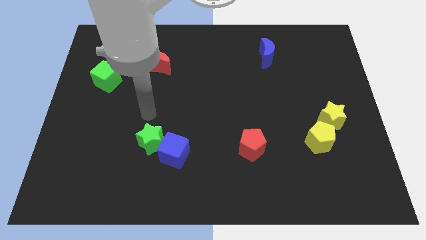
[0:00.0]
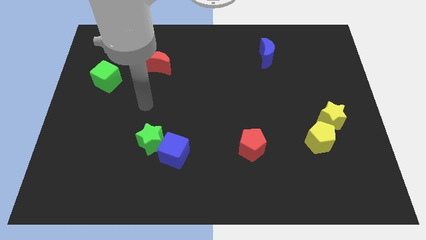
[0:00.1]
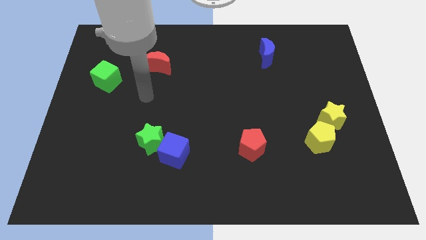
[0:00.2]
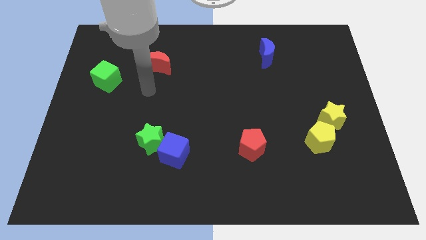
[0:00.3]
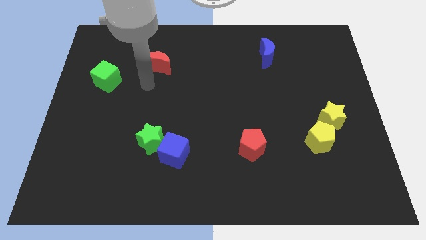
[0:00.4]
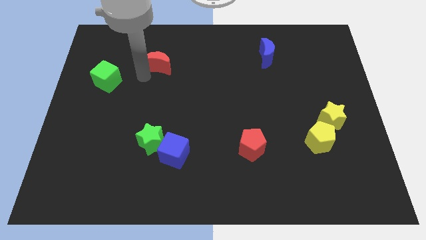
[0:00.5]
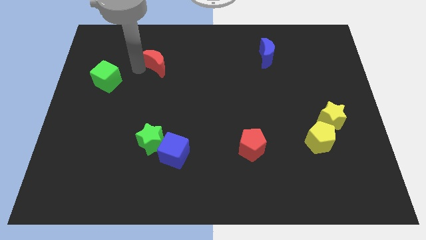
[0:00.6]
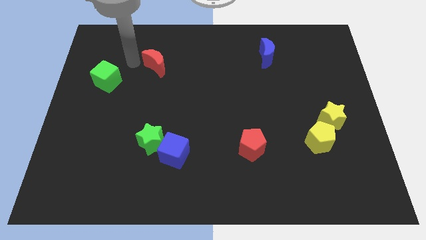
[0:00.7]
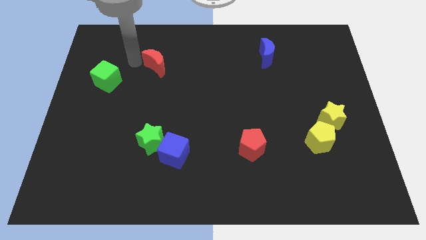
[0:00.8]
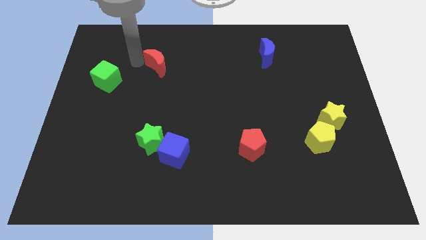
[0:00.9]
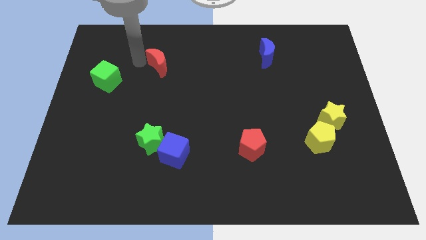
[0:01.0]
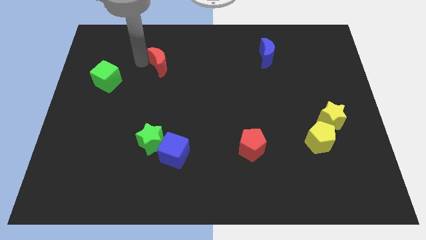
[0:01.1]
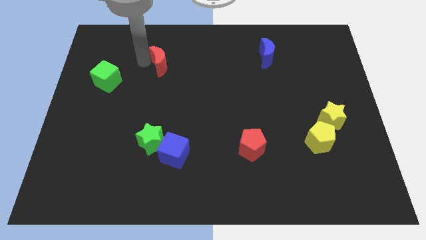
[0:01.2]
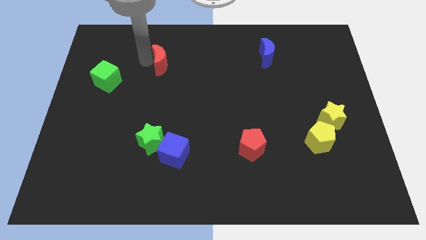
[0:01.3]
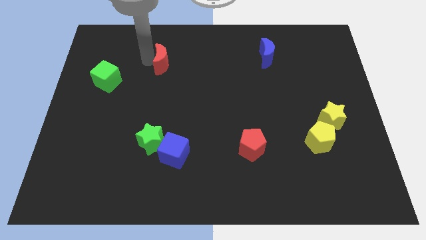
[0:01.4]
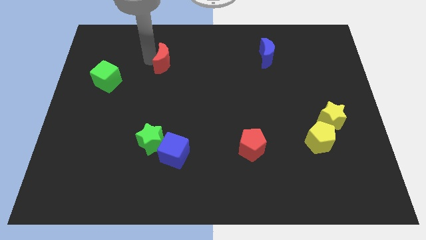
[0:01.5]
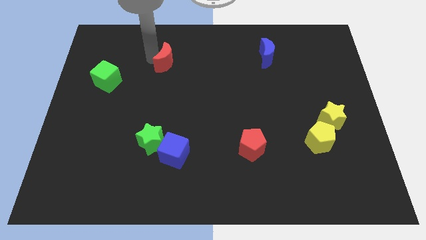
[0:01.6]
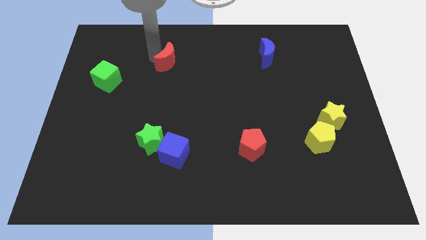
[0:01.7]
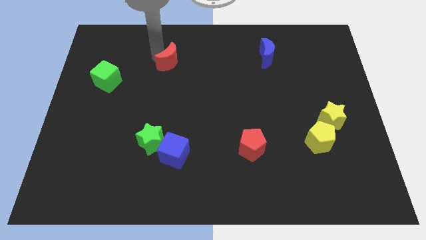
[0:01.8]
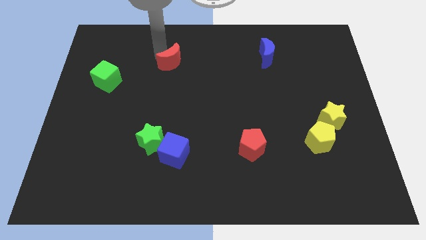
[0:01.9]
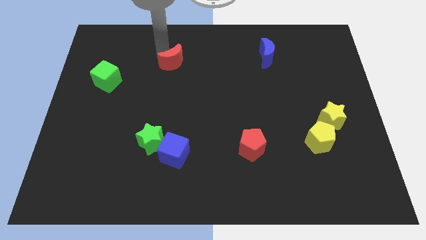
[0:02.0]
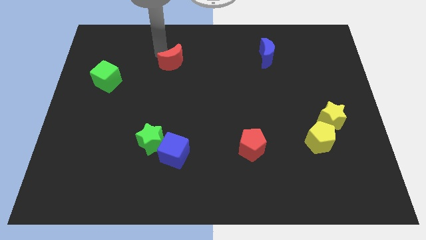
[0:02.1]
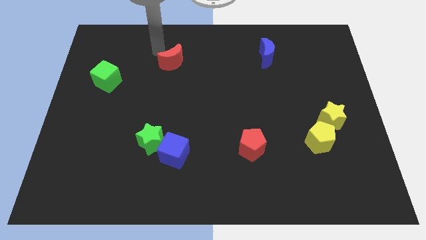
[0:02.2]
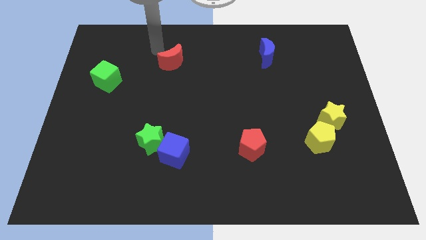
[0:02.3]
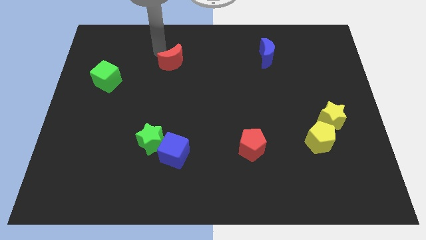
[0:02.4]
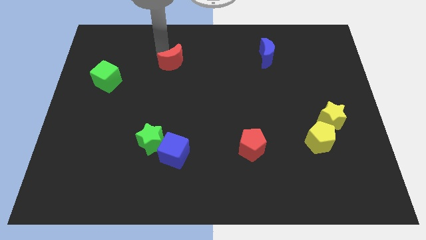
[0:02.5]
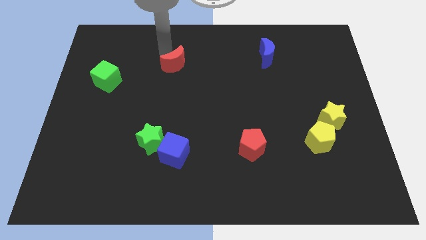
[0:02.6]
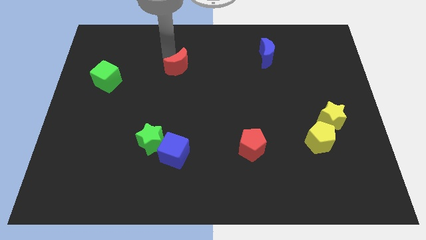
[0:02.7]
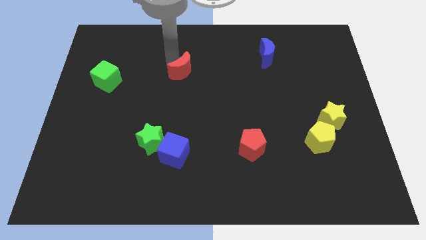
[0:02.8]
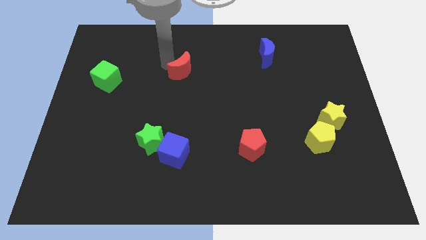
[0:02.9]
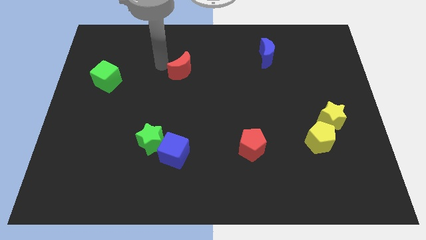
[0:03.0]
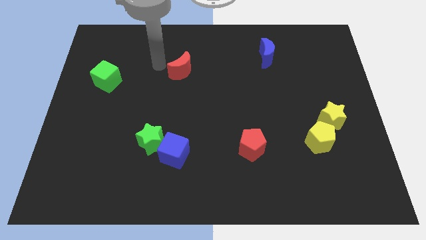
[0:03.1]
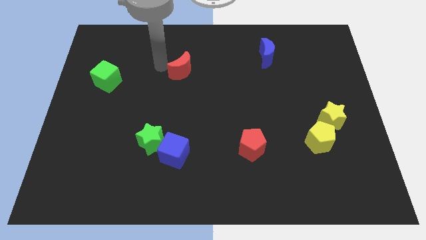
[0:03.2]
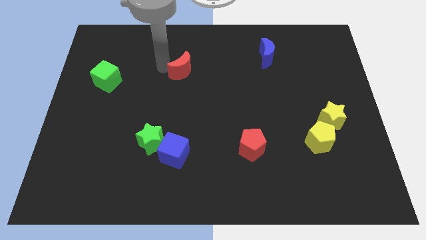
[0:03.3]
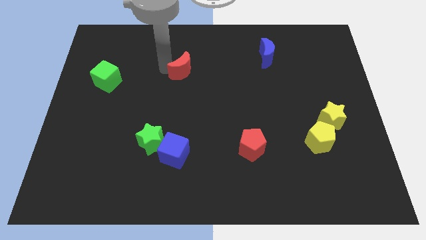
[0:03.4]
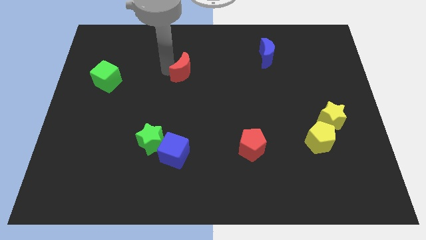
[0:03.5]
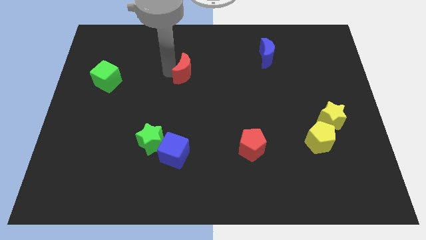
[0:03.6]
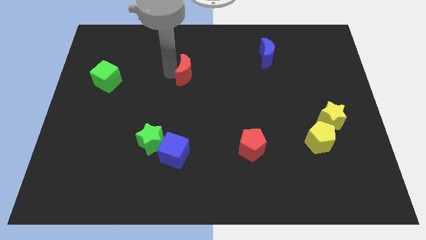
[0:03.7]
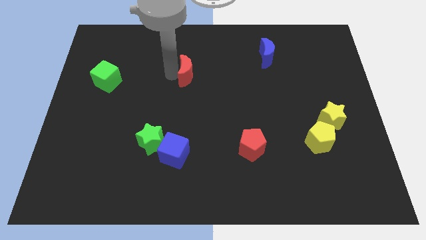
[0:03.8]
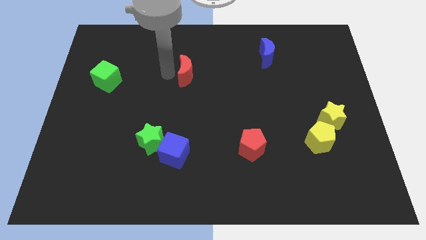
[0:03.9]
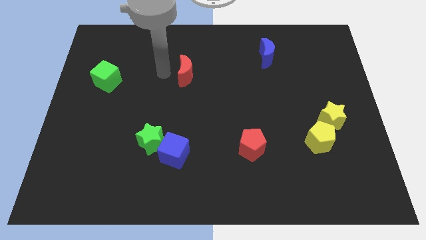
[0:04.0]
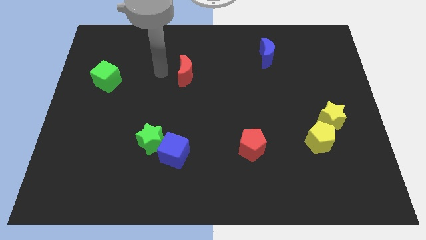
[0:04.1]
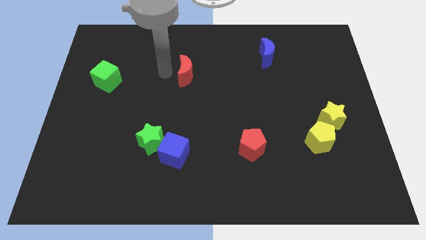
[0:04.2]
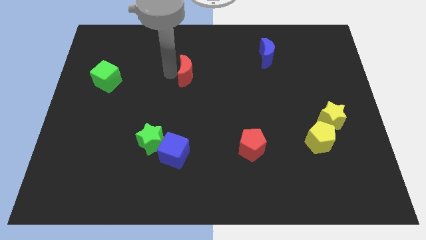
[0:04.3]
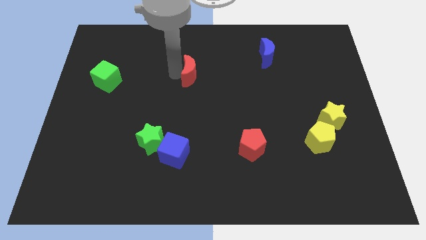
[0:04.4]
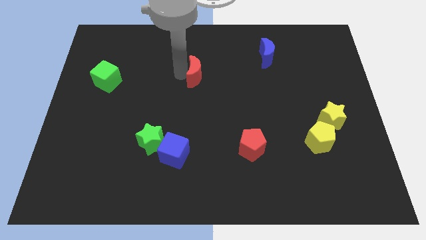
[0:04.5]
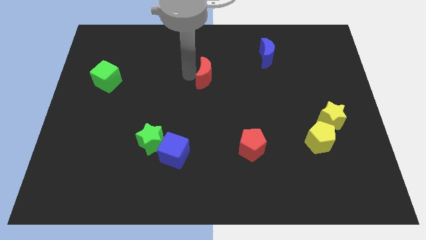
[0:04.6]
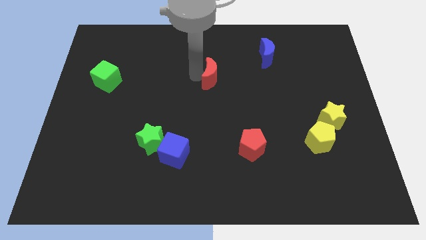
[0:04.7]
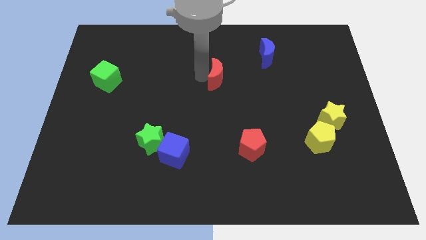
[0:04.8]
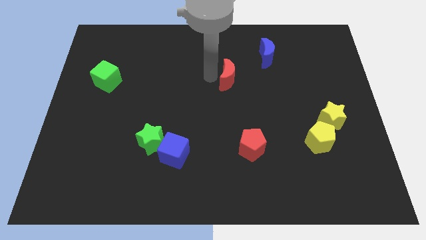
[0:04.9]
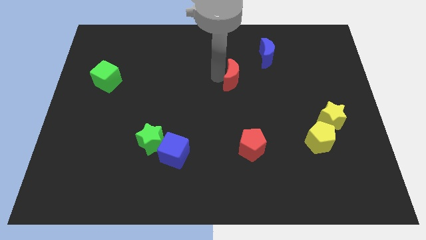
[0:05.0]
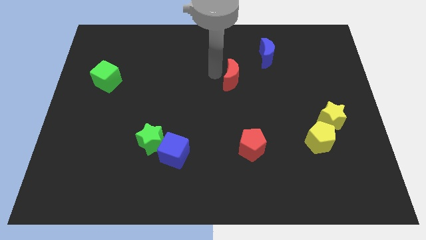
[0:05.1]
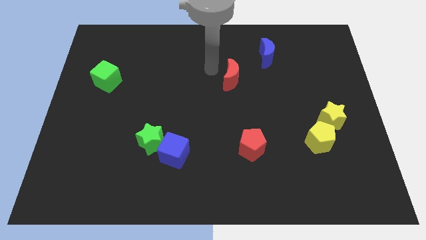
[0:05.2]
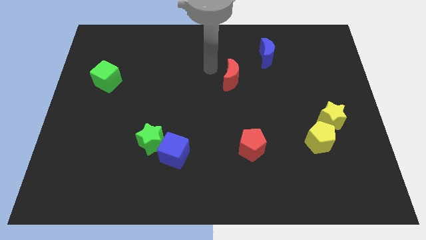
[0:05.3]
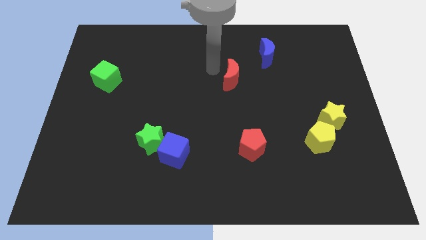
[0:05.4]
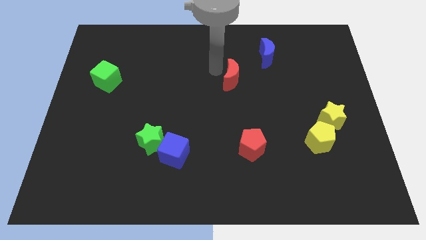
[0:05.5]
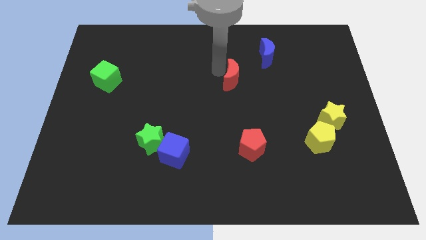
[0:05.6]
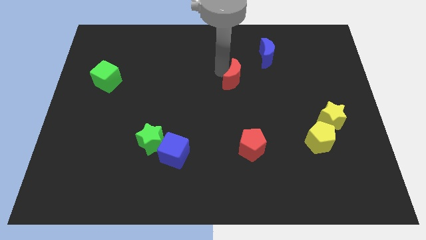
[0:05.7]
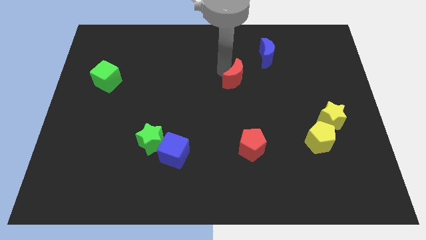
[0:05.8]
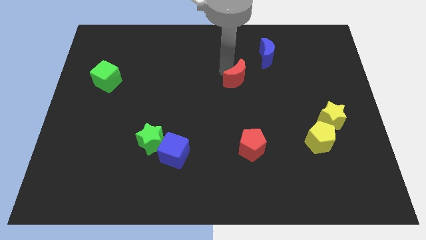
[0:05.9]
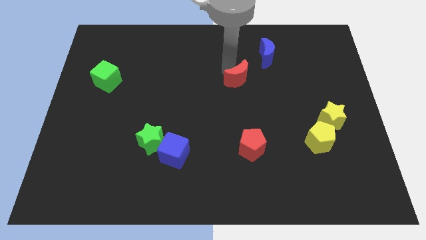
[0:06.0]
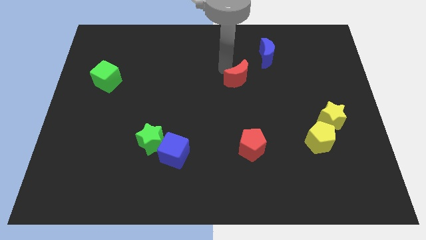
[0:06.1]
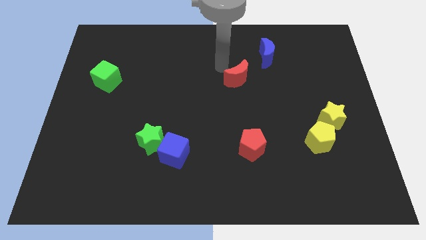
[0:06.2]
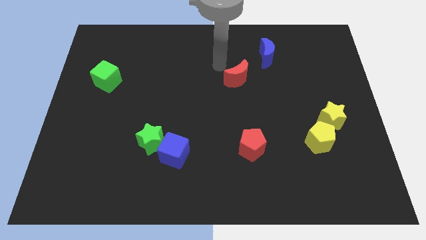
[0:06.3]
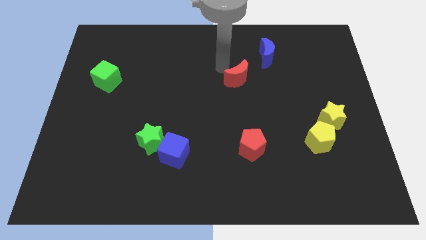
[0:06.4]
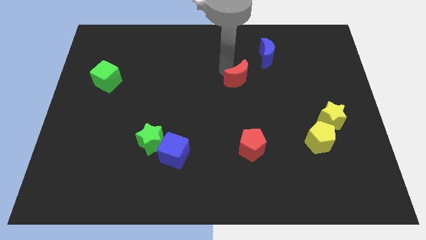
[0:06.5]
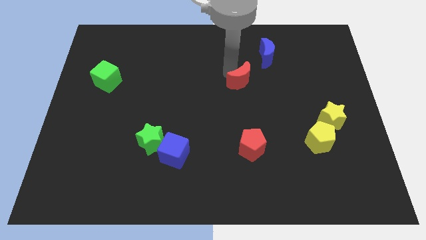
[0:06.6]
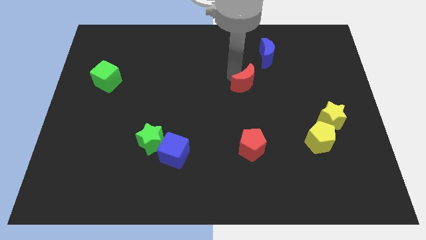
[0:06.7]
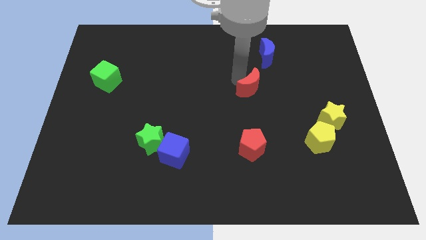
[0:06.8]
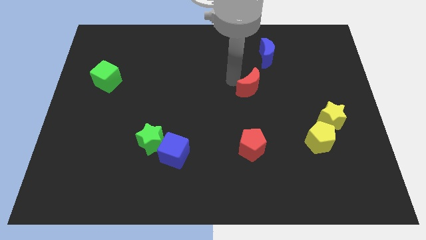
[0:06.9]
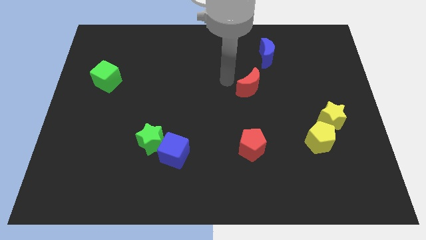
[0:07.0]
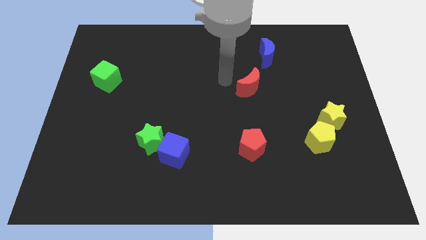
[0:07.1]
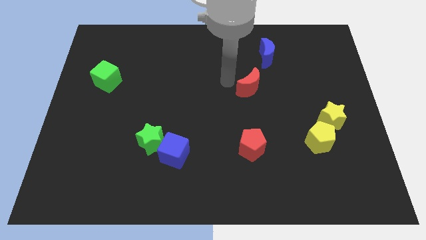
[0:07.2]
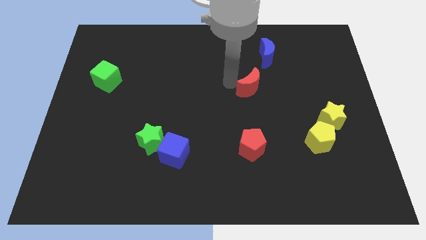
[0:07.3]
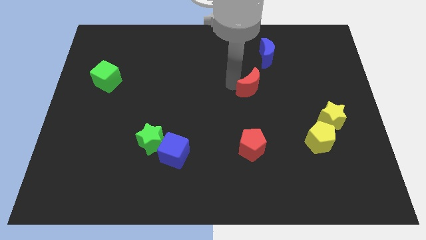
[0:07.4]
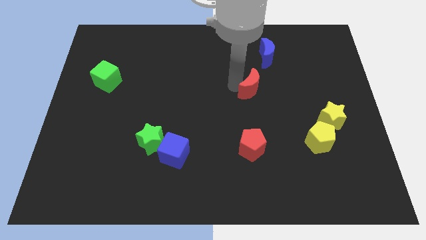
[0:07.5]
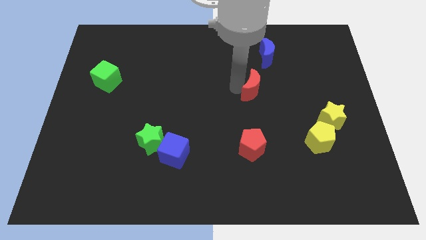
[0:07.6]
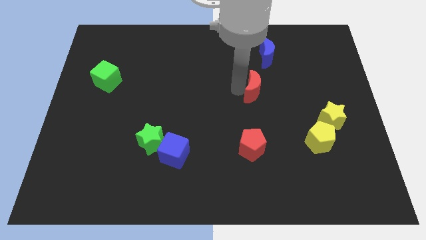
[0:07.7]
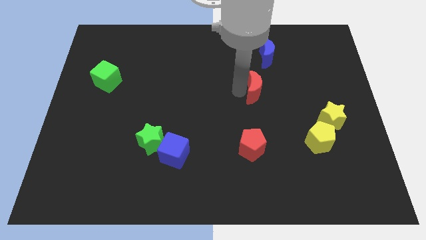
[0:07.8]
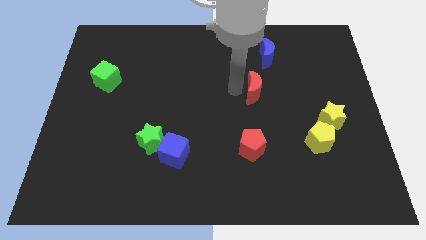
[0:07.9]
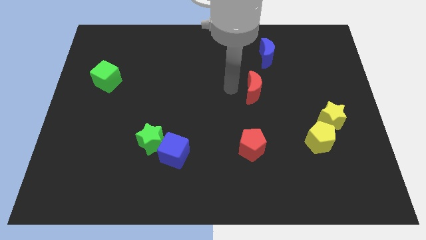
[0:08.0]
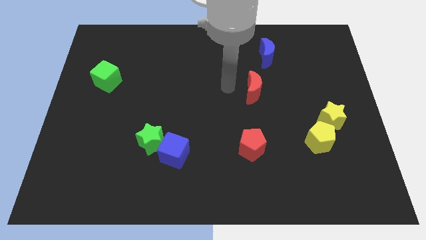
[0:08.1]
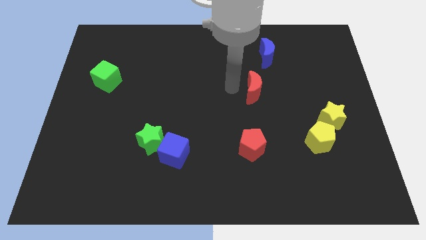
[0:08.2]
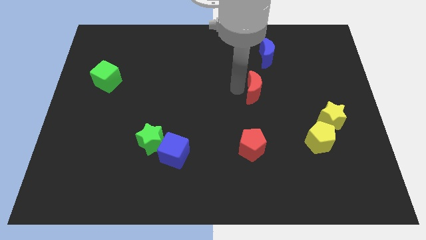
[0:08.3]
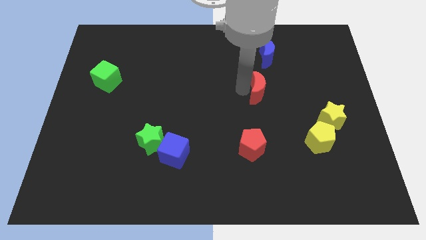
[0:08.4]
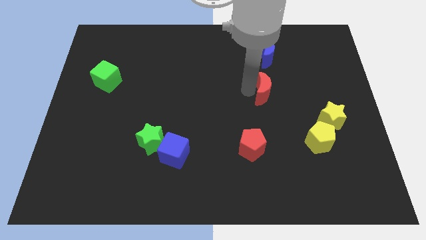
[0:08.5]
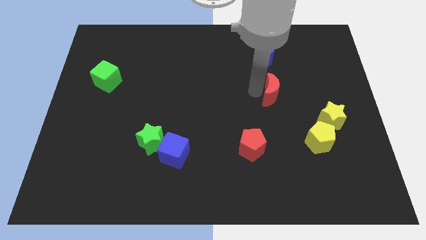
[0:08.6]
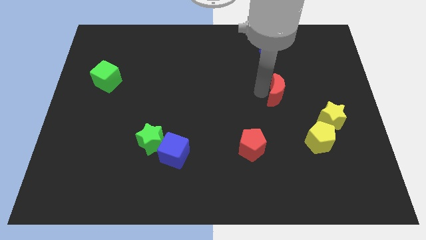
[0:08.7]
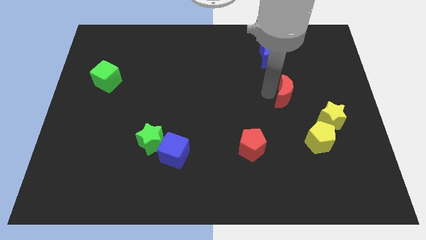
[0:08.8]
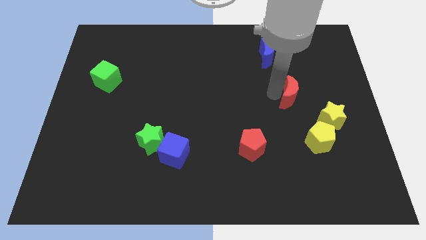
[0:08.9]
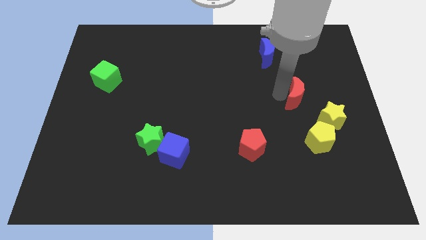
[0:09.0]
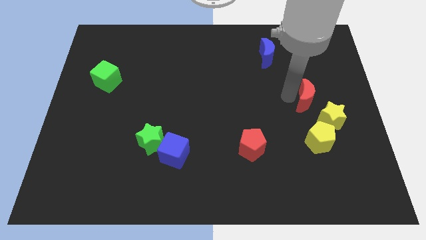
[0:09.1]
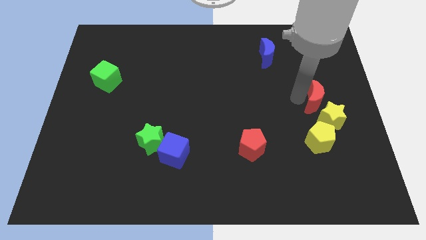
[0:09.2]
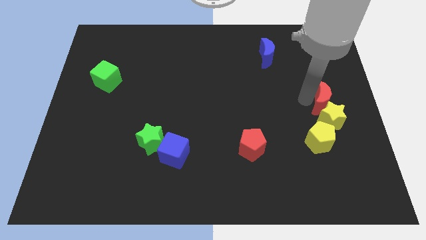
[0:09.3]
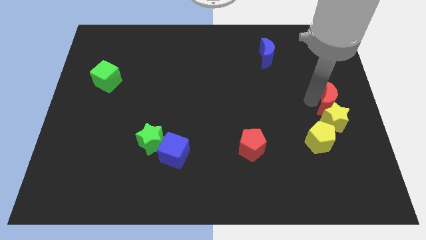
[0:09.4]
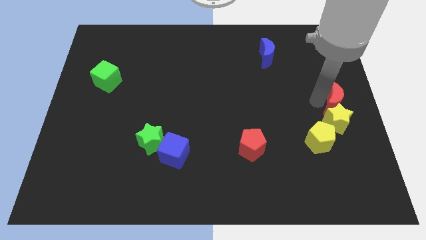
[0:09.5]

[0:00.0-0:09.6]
push the red moon to the top right side of the yellow pentagon
